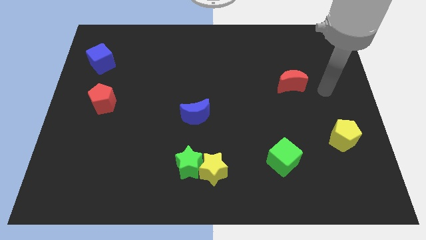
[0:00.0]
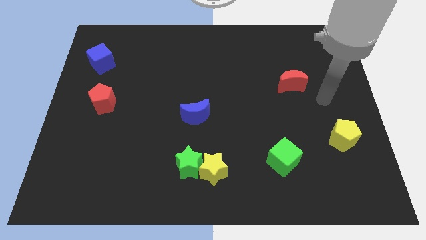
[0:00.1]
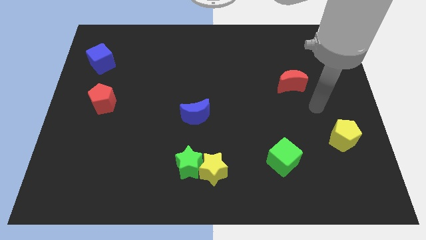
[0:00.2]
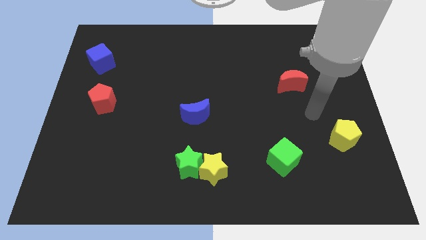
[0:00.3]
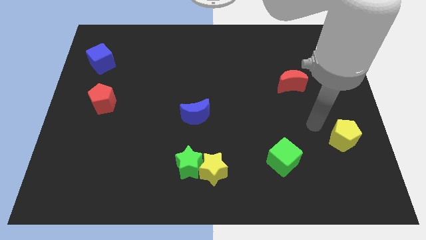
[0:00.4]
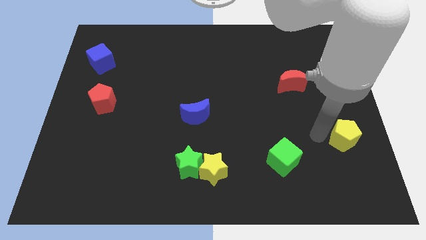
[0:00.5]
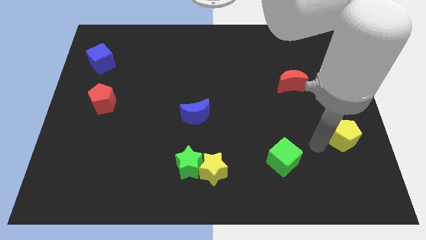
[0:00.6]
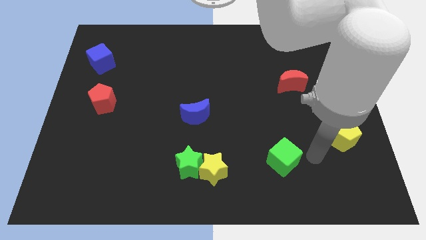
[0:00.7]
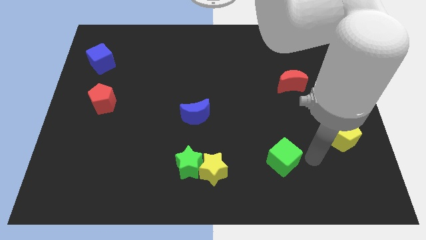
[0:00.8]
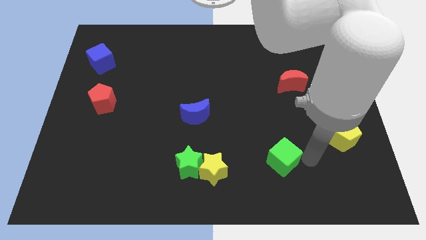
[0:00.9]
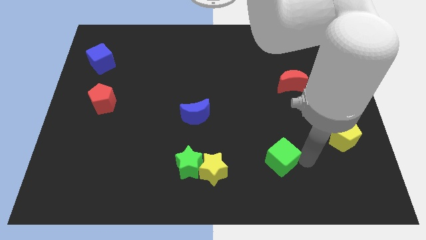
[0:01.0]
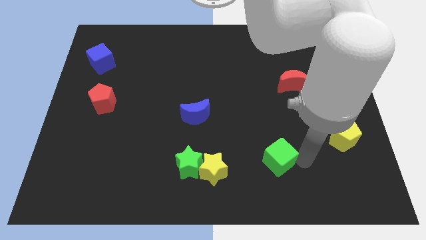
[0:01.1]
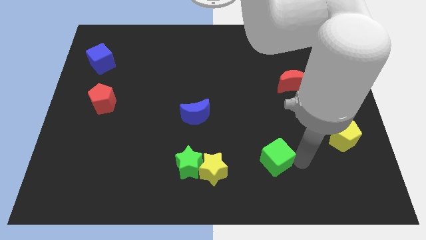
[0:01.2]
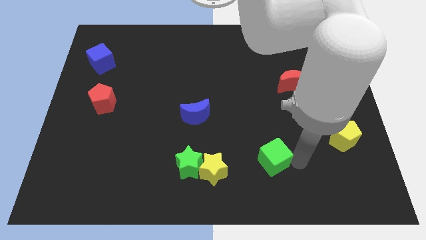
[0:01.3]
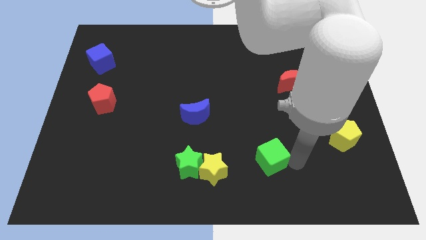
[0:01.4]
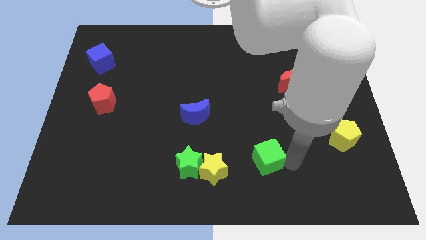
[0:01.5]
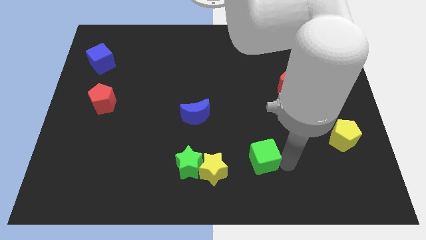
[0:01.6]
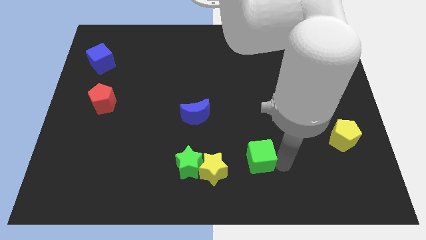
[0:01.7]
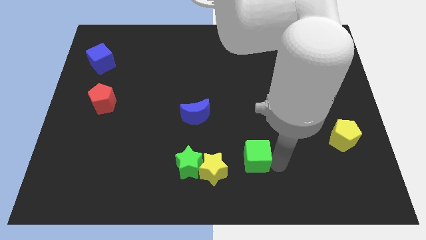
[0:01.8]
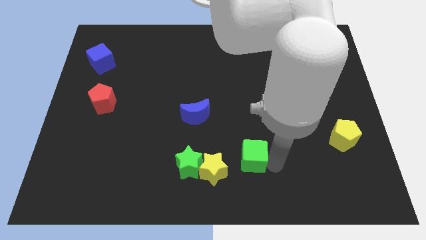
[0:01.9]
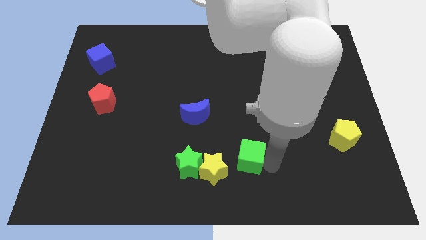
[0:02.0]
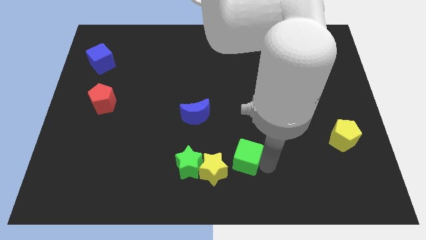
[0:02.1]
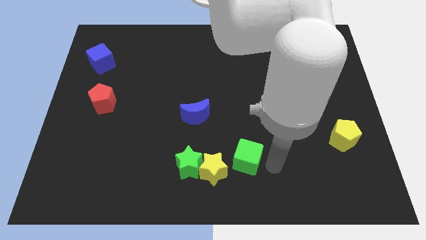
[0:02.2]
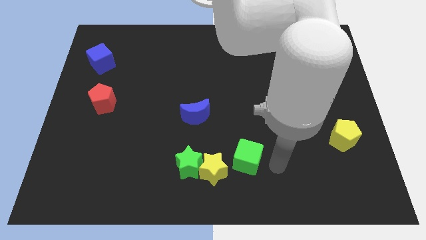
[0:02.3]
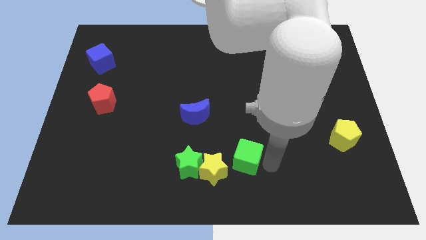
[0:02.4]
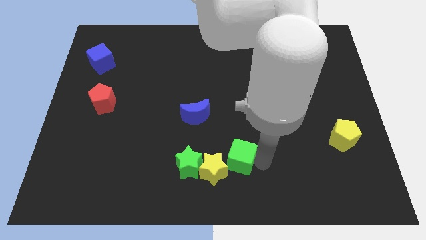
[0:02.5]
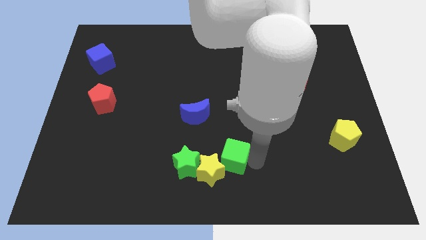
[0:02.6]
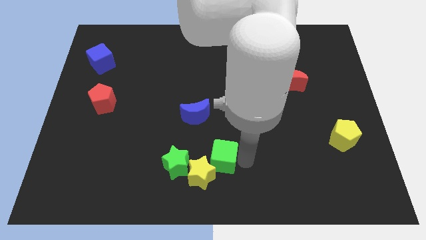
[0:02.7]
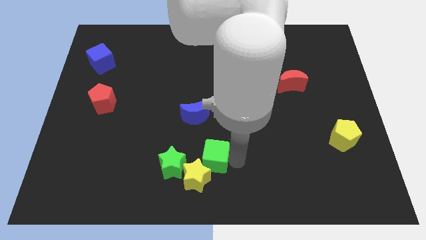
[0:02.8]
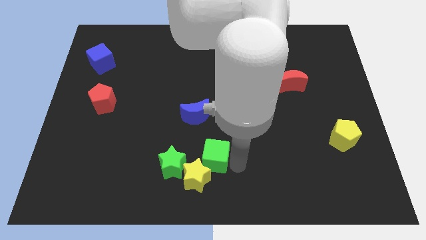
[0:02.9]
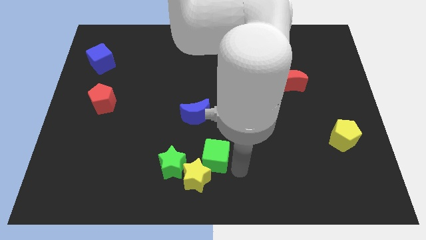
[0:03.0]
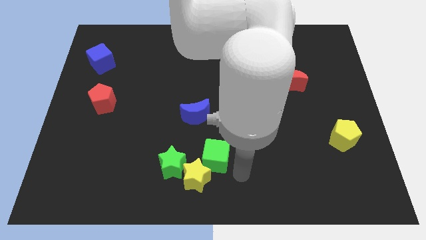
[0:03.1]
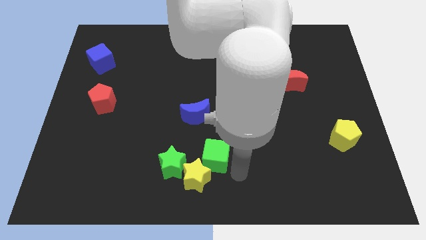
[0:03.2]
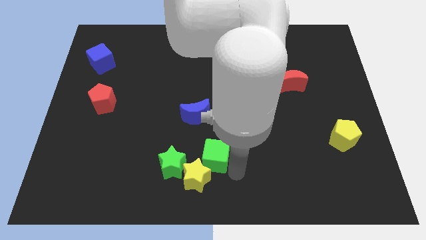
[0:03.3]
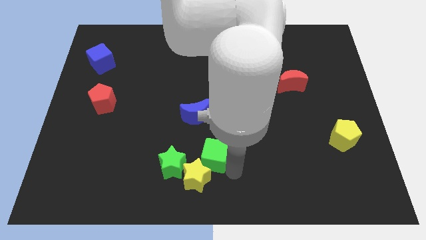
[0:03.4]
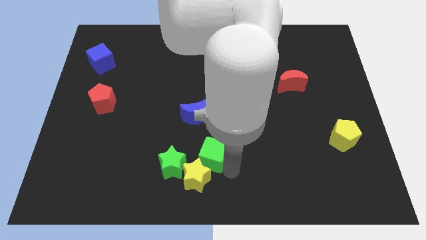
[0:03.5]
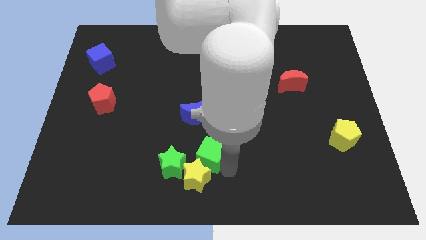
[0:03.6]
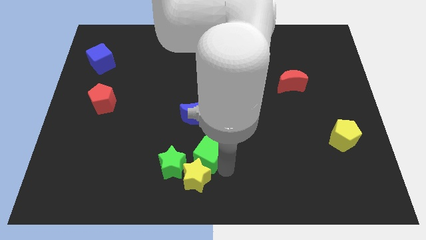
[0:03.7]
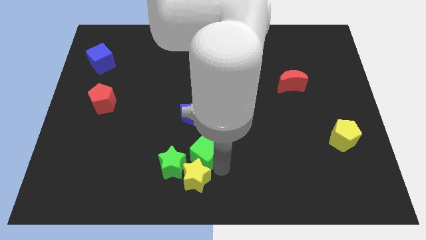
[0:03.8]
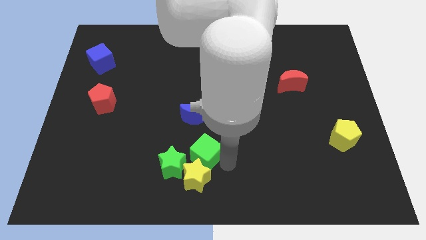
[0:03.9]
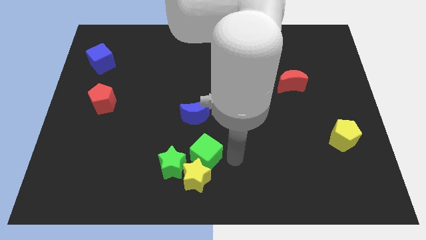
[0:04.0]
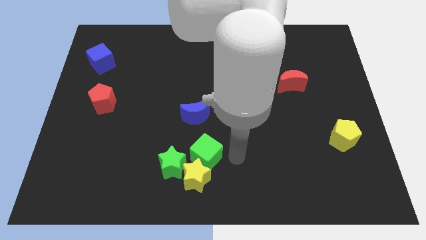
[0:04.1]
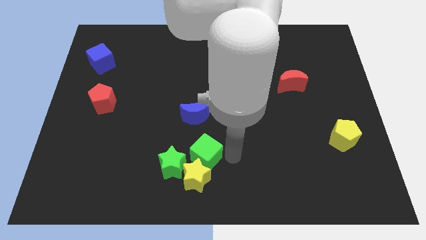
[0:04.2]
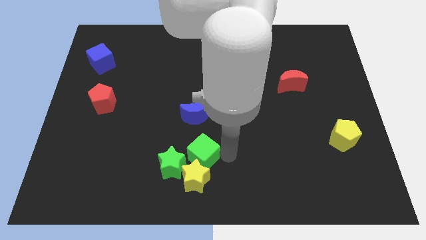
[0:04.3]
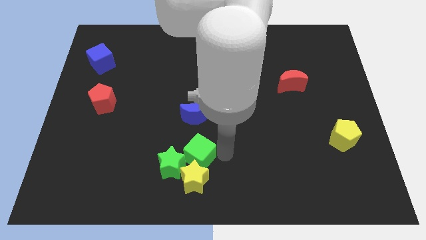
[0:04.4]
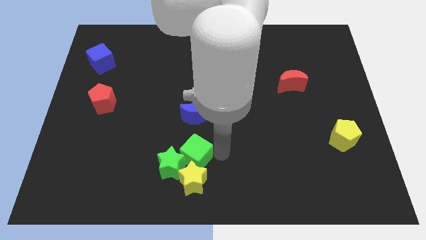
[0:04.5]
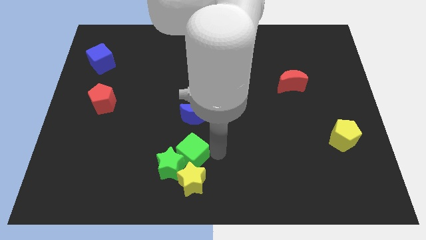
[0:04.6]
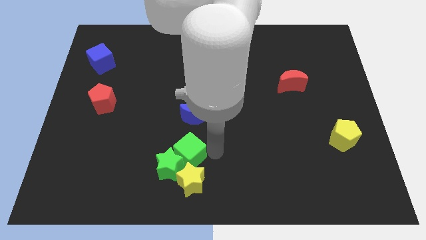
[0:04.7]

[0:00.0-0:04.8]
slide the green cube left

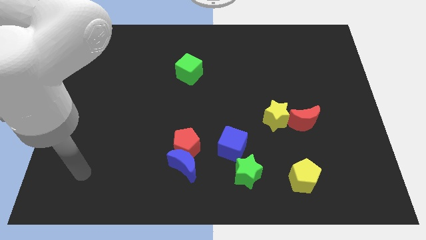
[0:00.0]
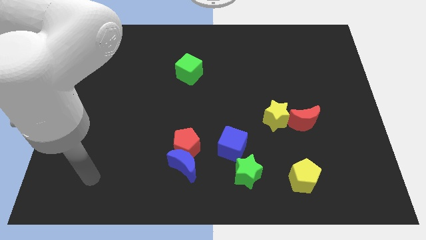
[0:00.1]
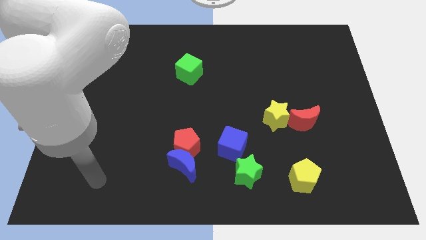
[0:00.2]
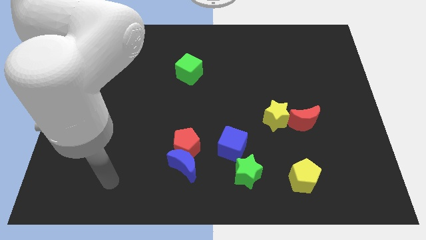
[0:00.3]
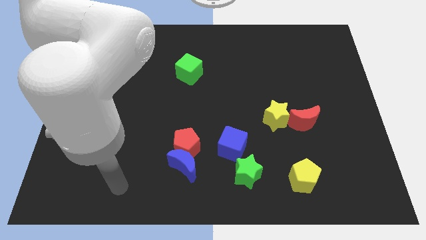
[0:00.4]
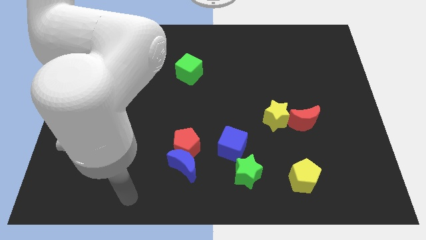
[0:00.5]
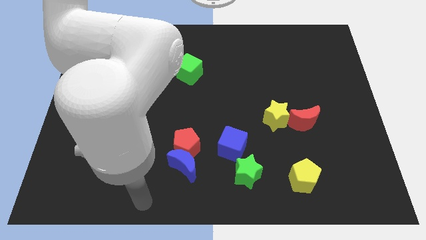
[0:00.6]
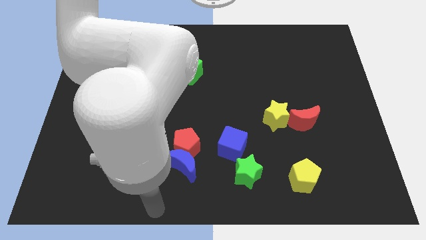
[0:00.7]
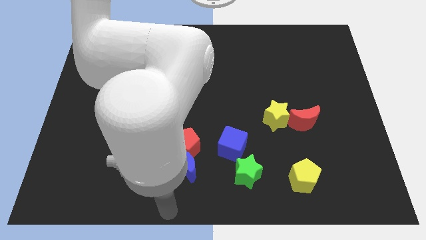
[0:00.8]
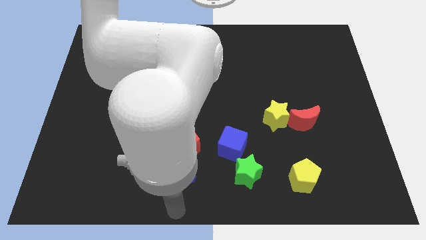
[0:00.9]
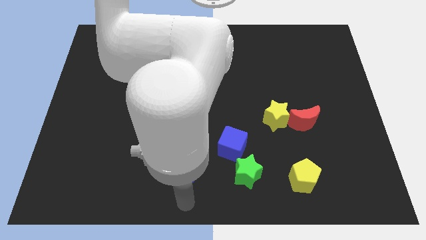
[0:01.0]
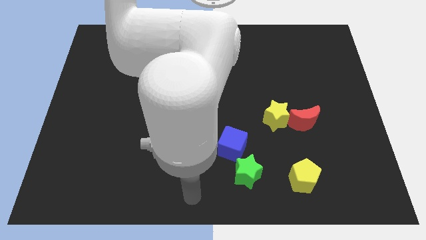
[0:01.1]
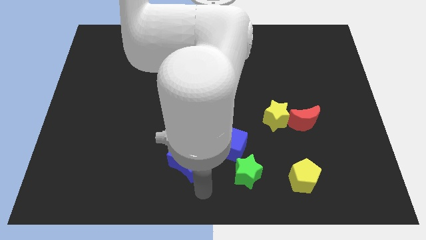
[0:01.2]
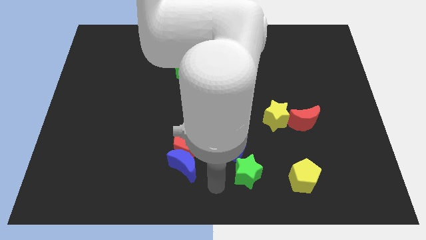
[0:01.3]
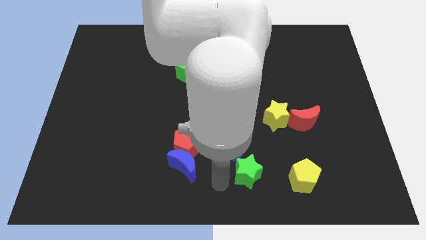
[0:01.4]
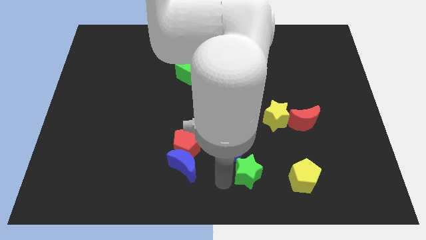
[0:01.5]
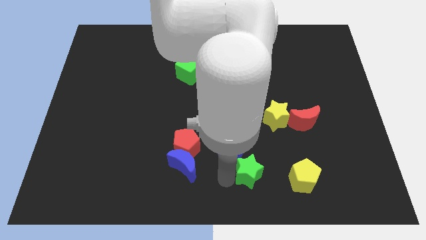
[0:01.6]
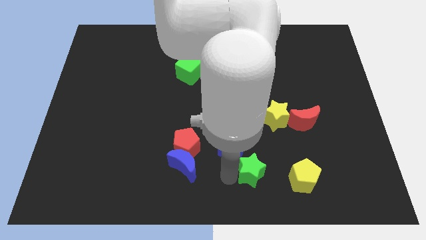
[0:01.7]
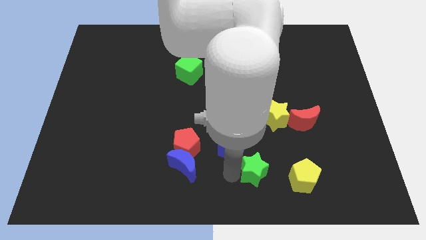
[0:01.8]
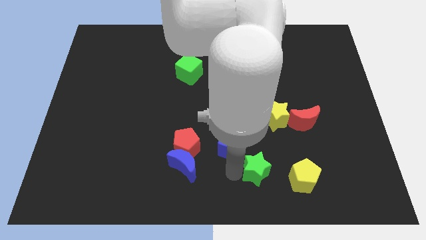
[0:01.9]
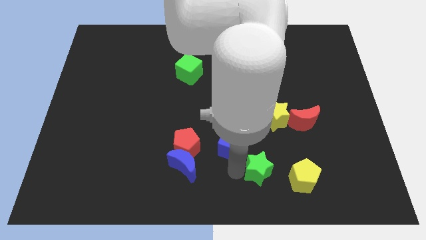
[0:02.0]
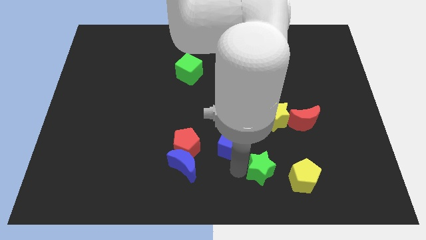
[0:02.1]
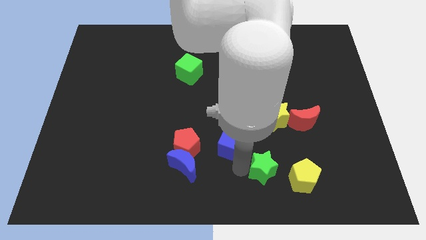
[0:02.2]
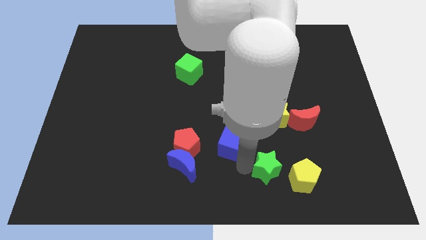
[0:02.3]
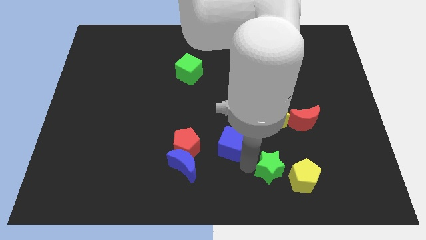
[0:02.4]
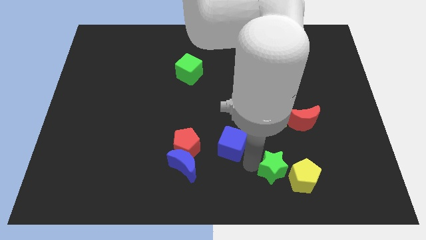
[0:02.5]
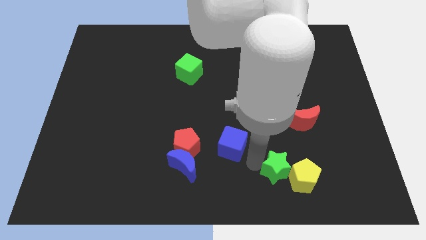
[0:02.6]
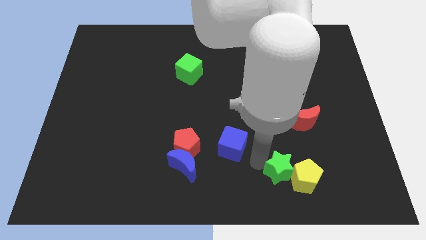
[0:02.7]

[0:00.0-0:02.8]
slightly slide the green star right
